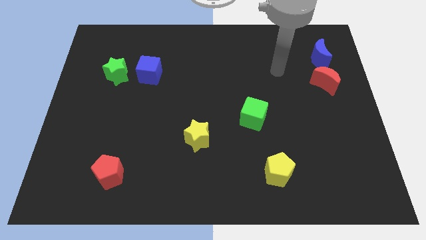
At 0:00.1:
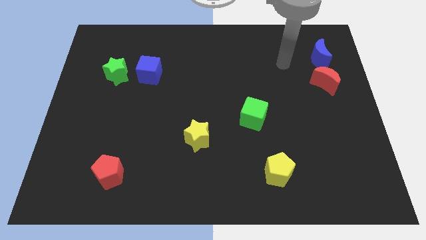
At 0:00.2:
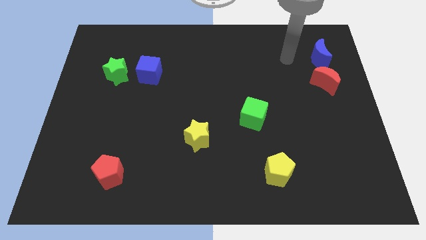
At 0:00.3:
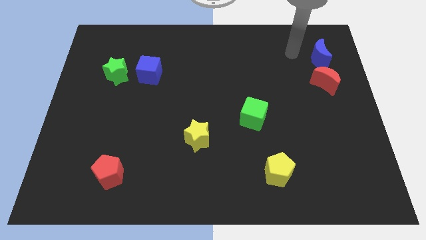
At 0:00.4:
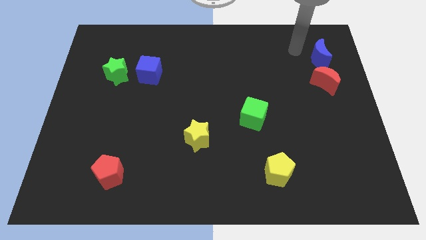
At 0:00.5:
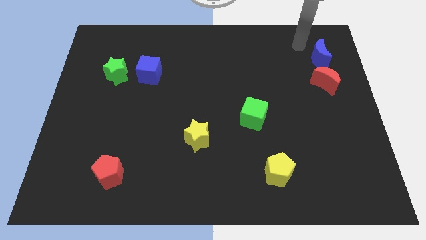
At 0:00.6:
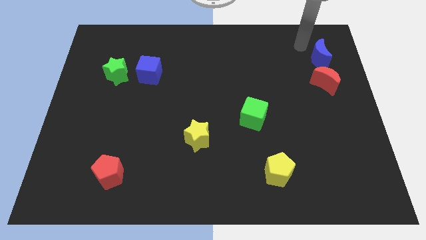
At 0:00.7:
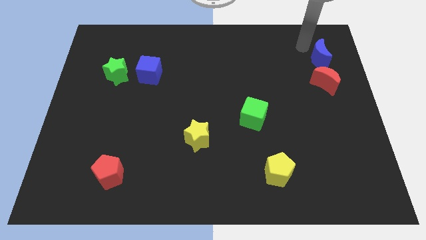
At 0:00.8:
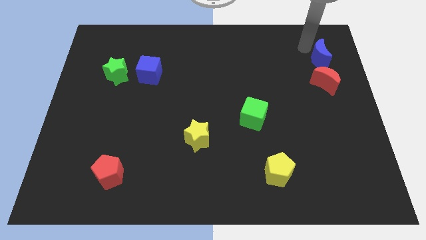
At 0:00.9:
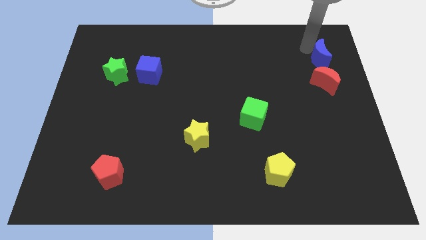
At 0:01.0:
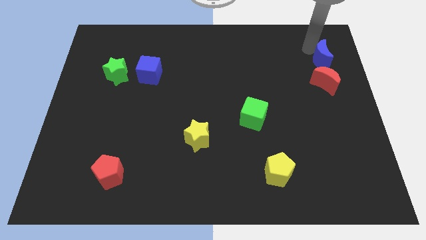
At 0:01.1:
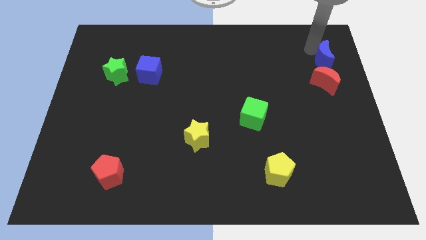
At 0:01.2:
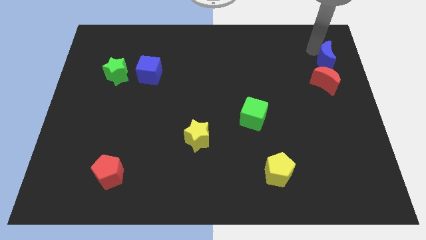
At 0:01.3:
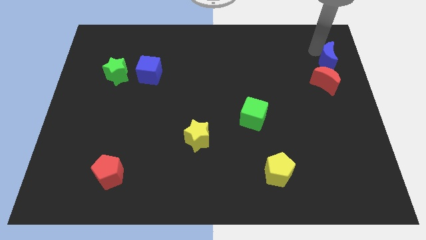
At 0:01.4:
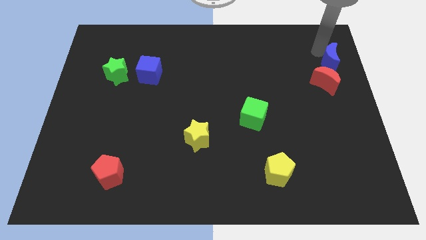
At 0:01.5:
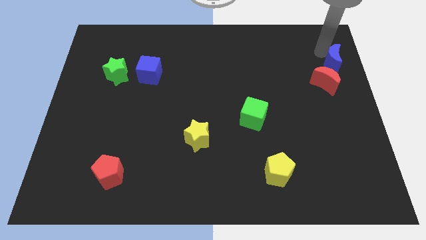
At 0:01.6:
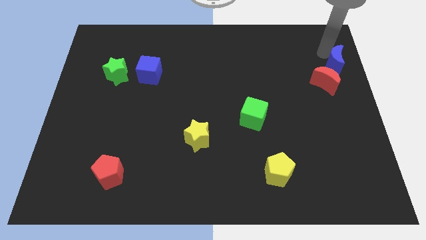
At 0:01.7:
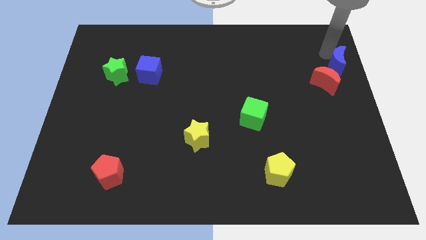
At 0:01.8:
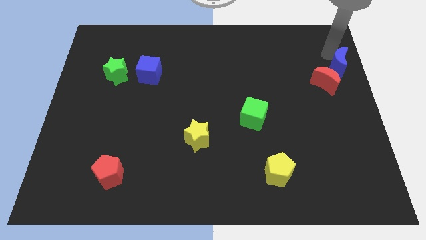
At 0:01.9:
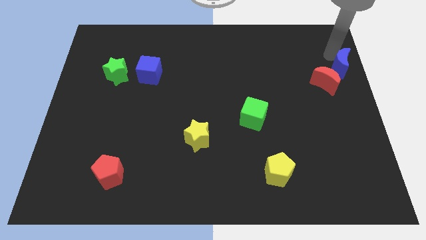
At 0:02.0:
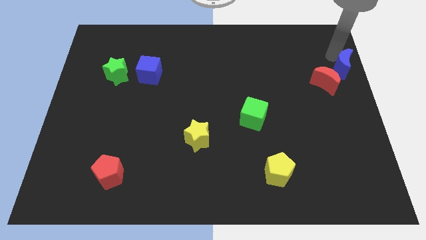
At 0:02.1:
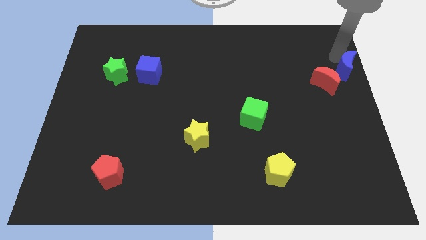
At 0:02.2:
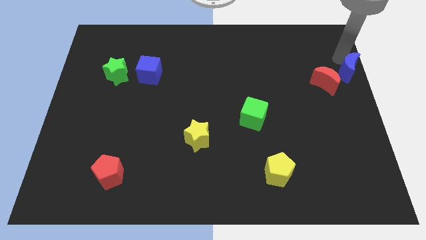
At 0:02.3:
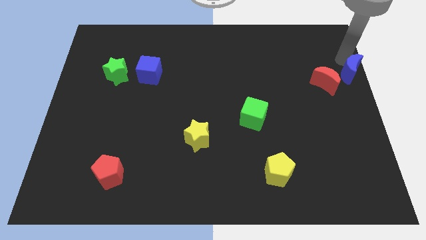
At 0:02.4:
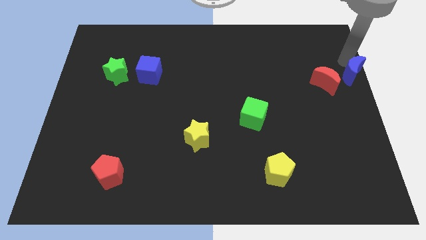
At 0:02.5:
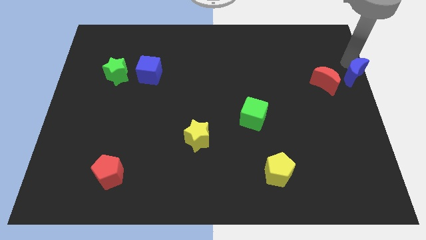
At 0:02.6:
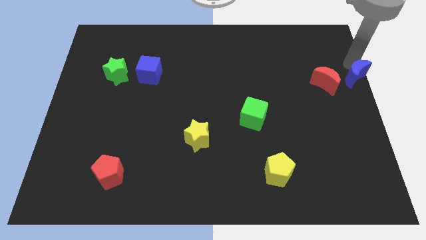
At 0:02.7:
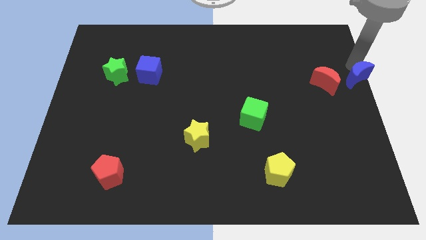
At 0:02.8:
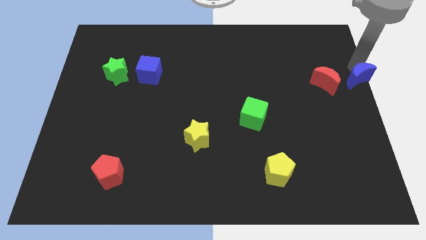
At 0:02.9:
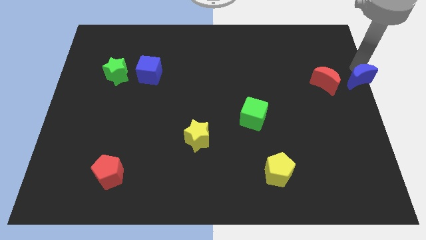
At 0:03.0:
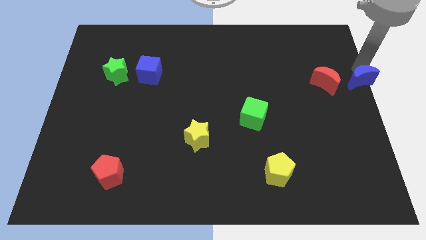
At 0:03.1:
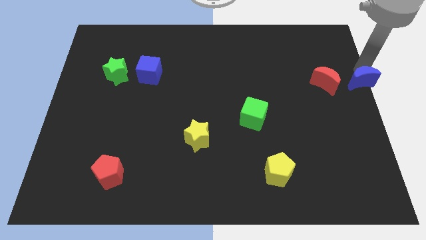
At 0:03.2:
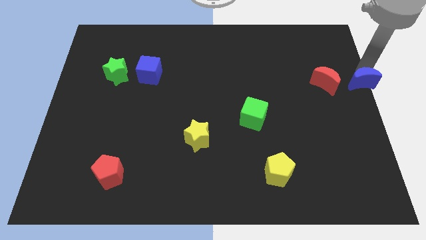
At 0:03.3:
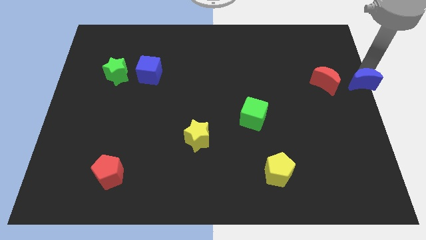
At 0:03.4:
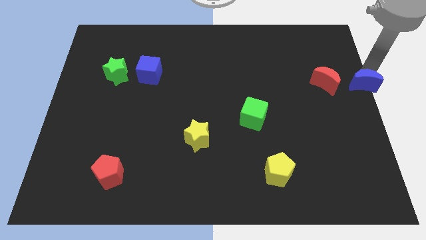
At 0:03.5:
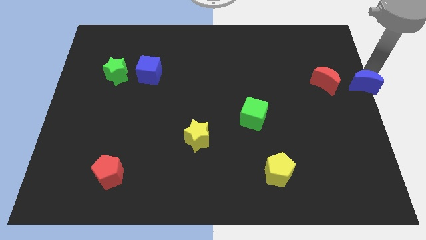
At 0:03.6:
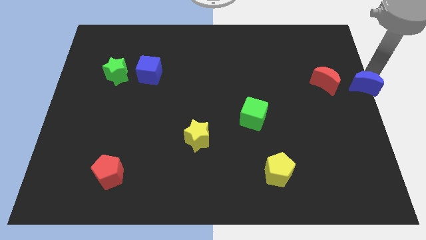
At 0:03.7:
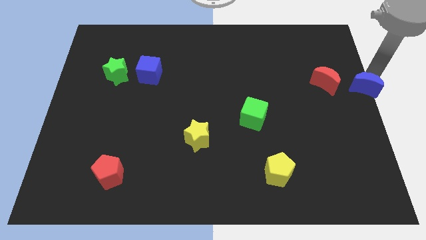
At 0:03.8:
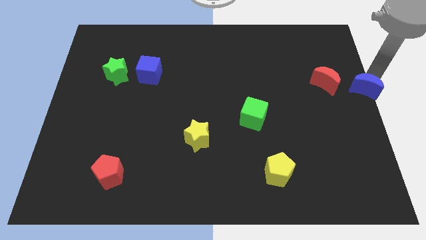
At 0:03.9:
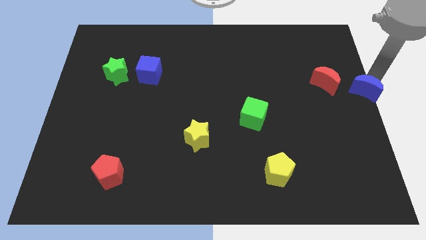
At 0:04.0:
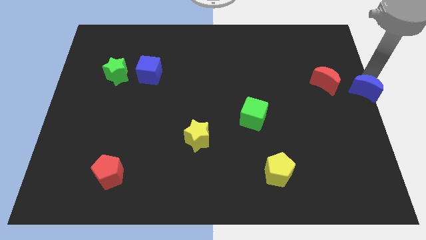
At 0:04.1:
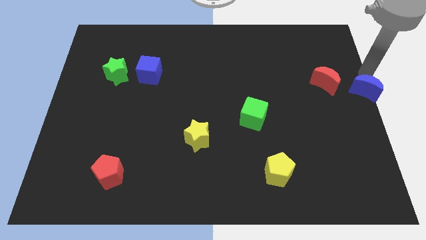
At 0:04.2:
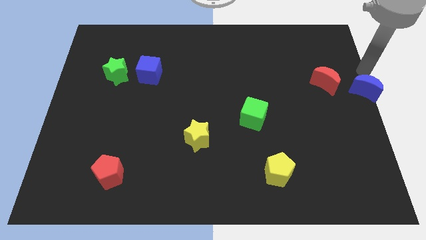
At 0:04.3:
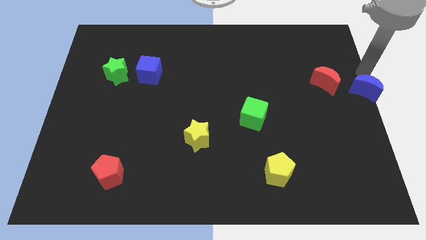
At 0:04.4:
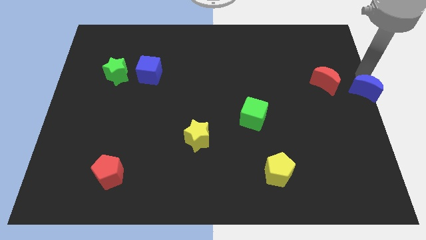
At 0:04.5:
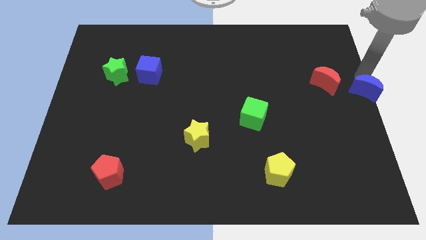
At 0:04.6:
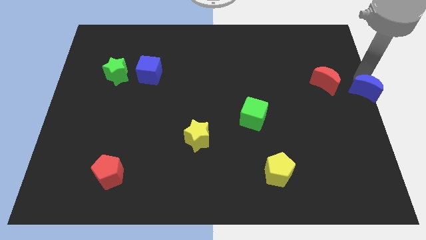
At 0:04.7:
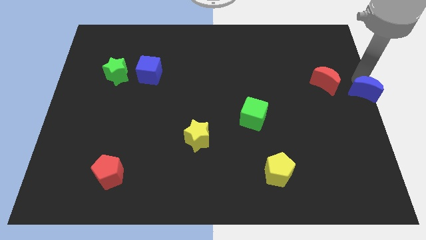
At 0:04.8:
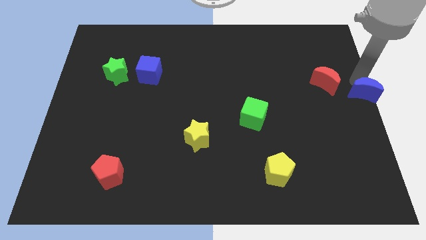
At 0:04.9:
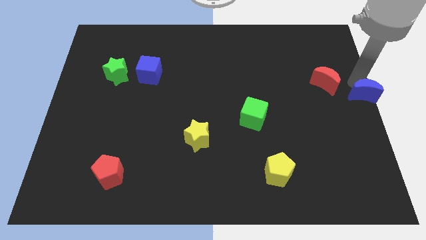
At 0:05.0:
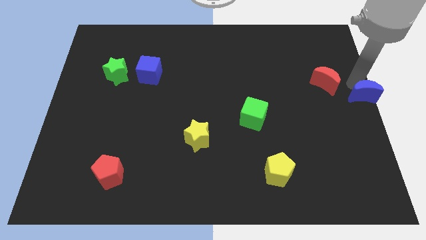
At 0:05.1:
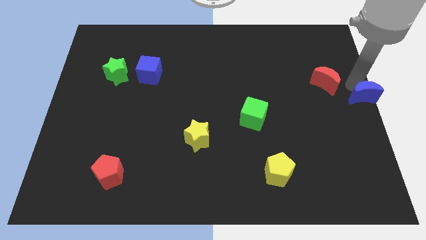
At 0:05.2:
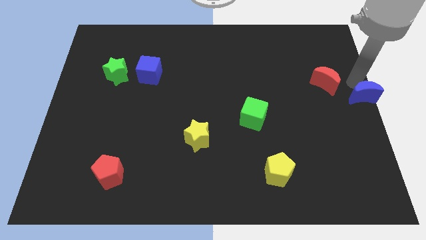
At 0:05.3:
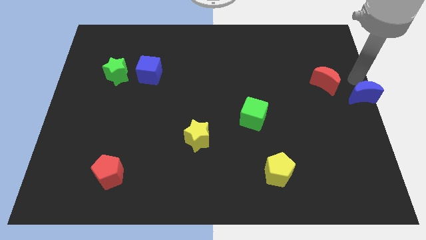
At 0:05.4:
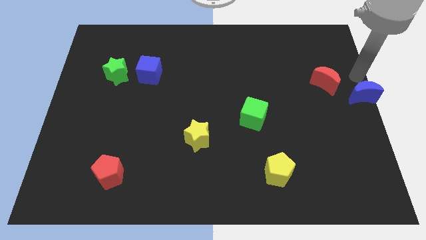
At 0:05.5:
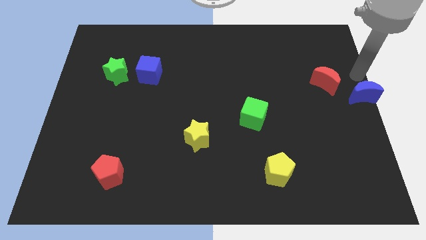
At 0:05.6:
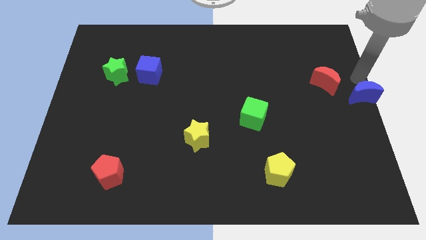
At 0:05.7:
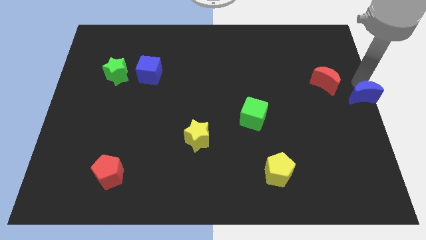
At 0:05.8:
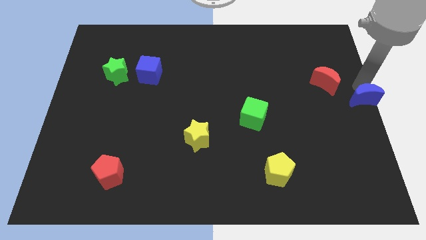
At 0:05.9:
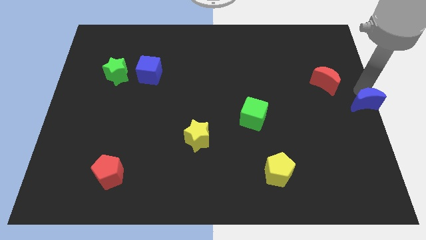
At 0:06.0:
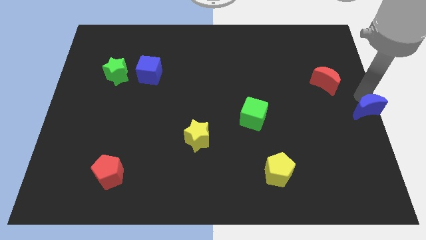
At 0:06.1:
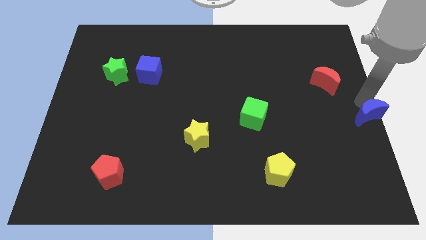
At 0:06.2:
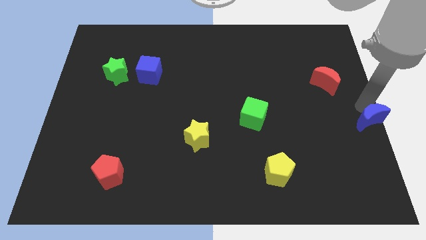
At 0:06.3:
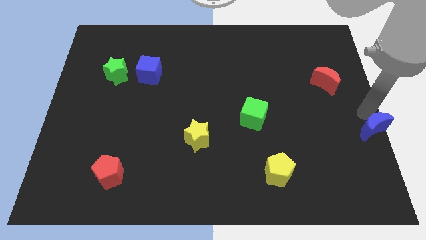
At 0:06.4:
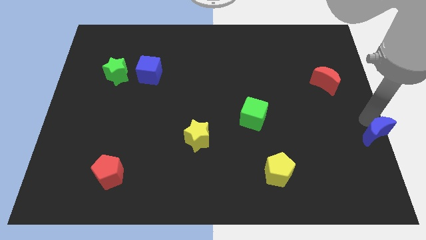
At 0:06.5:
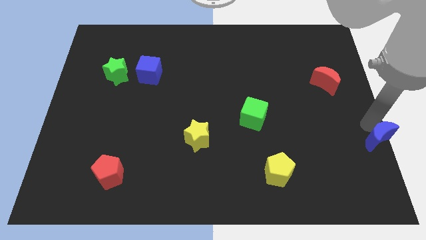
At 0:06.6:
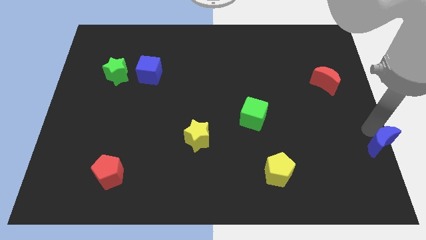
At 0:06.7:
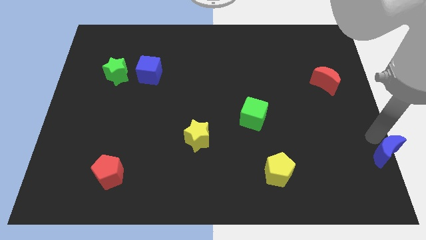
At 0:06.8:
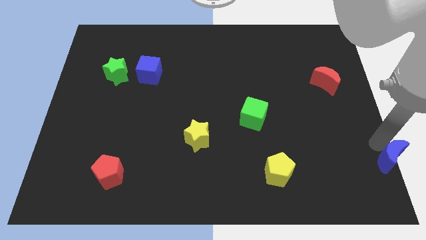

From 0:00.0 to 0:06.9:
move the blue moon to the bottom right corner
